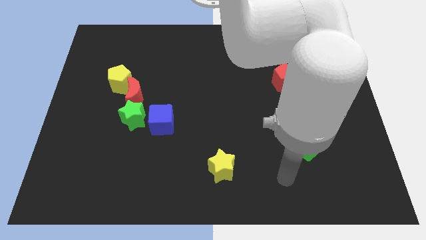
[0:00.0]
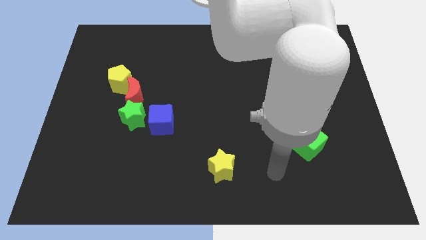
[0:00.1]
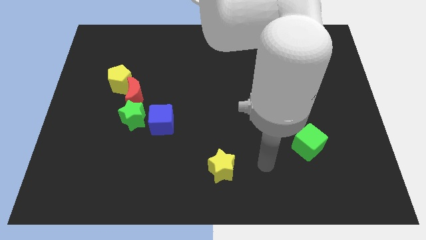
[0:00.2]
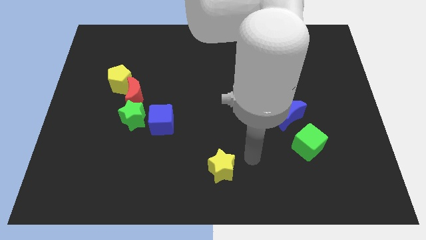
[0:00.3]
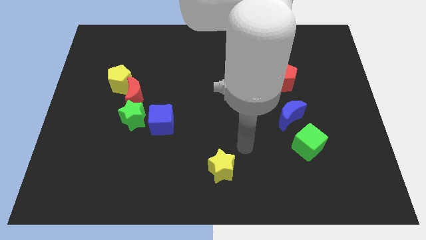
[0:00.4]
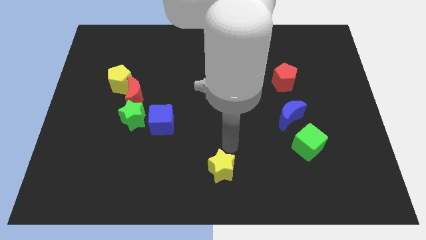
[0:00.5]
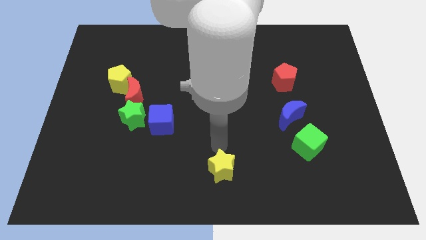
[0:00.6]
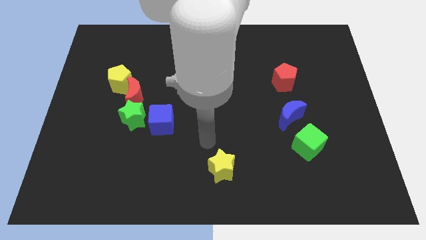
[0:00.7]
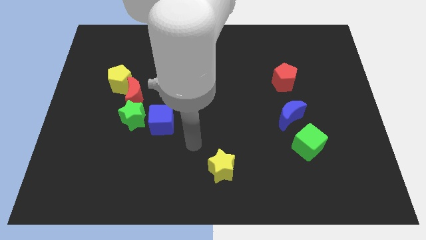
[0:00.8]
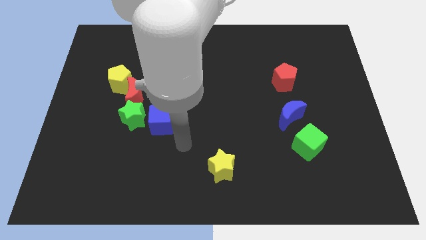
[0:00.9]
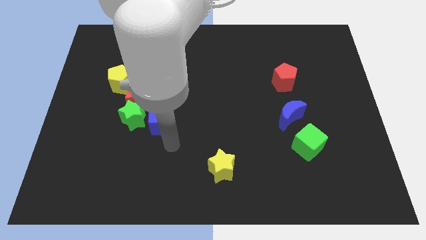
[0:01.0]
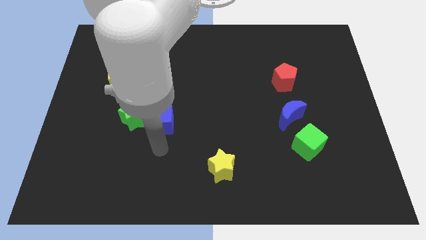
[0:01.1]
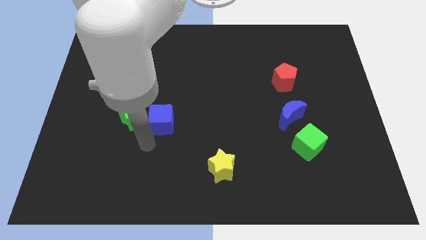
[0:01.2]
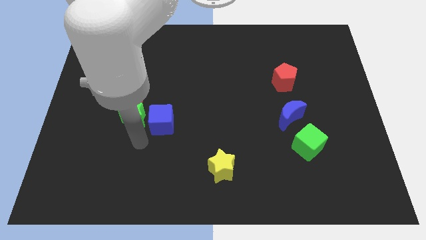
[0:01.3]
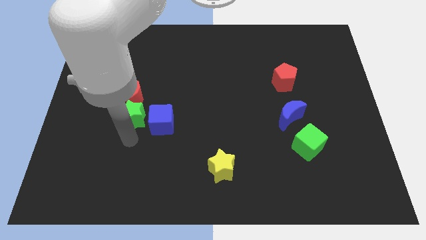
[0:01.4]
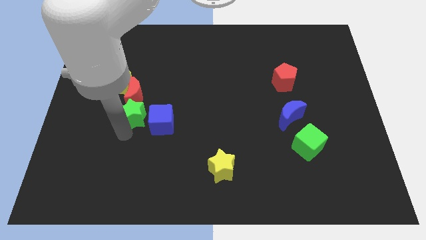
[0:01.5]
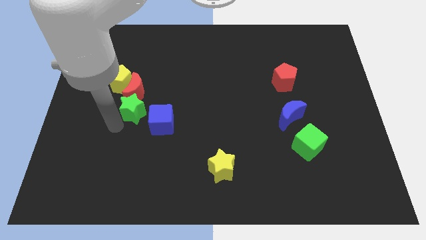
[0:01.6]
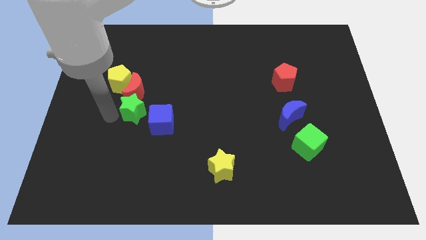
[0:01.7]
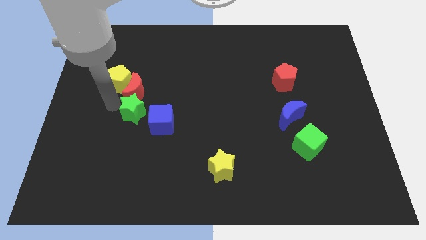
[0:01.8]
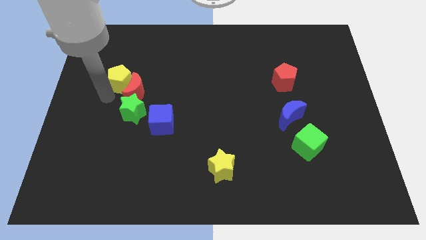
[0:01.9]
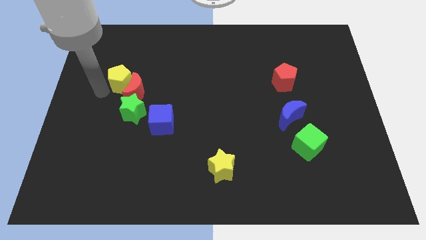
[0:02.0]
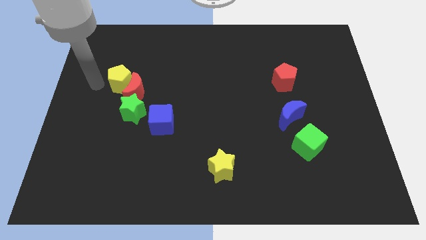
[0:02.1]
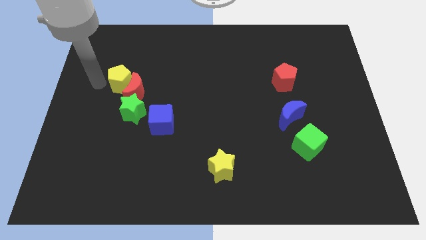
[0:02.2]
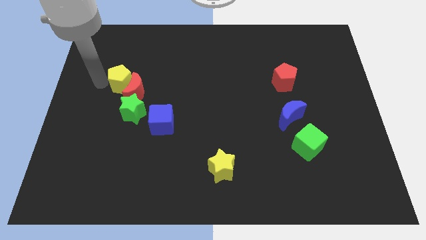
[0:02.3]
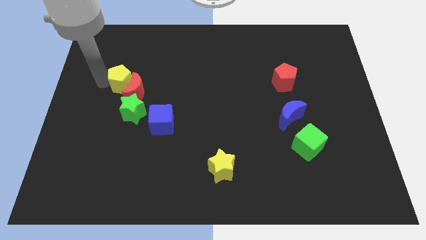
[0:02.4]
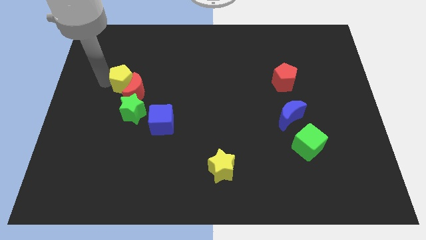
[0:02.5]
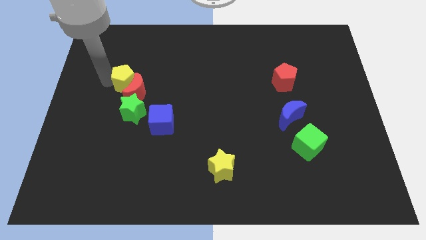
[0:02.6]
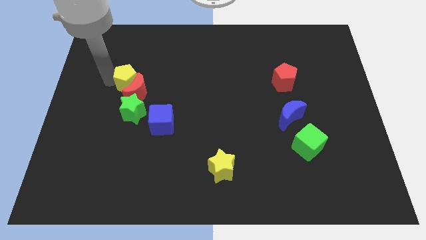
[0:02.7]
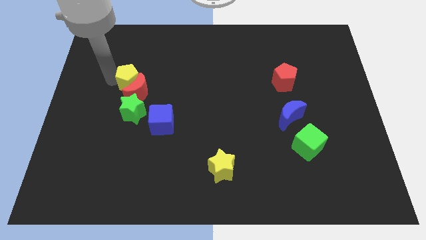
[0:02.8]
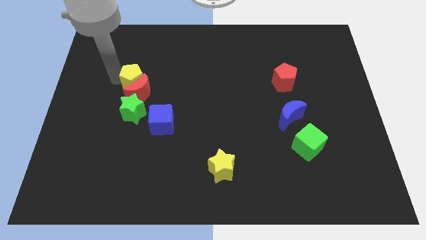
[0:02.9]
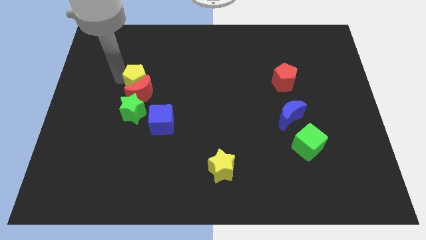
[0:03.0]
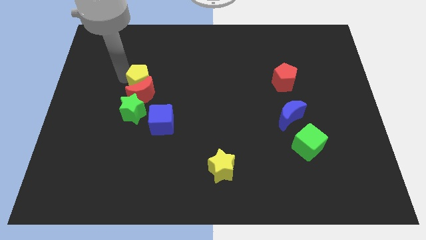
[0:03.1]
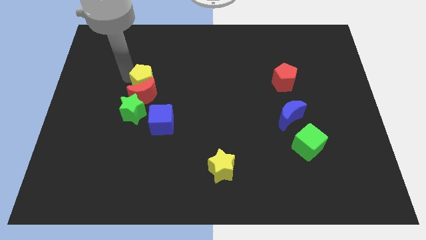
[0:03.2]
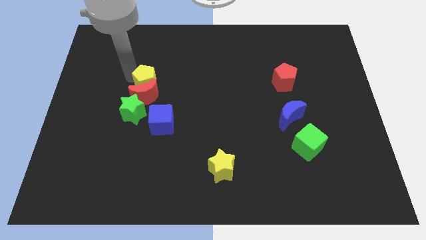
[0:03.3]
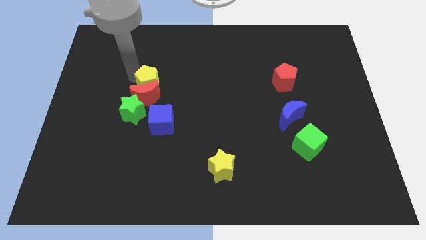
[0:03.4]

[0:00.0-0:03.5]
slightly move the yellow pentagon to the right

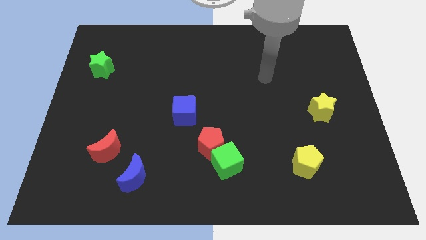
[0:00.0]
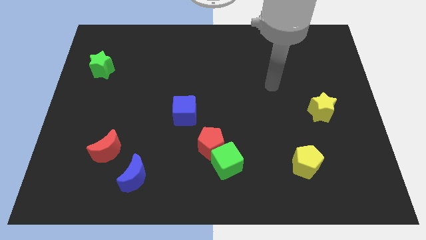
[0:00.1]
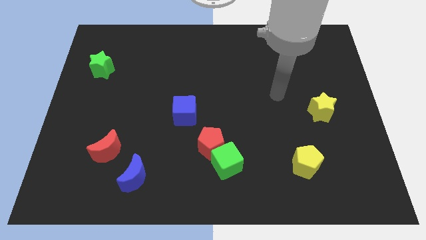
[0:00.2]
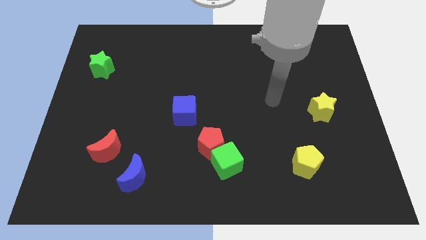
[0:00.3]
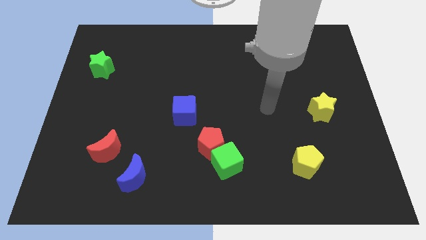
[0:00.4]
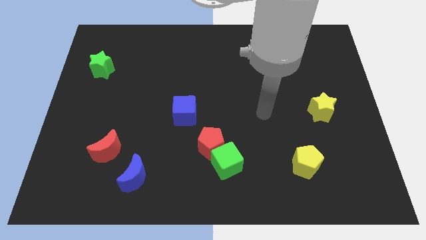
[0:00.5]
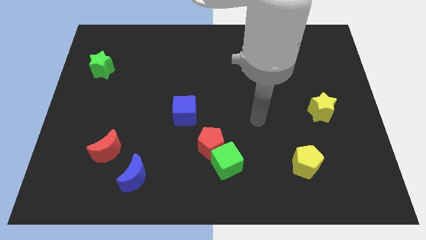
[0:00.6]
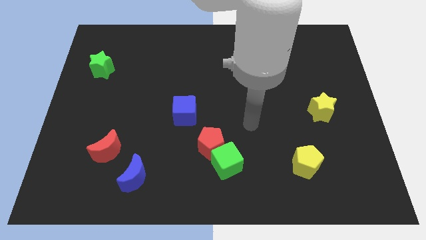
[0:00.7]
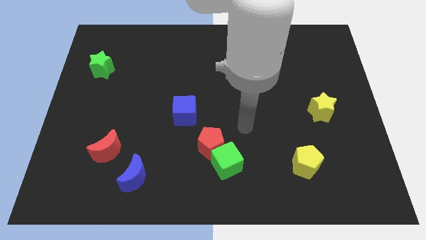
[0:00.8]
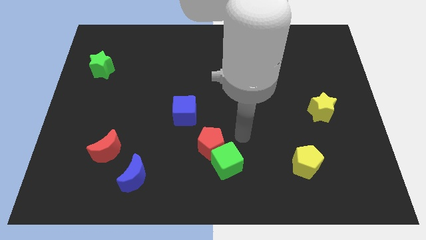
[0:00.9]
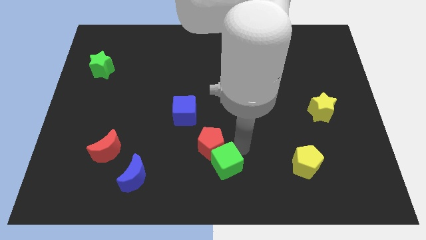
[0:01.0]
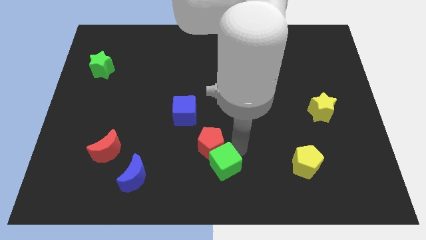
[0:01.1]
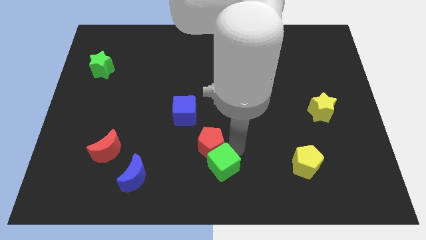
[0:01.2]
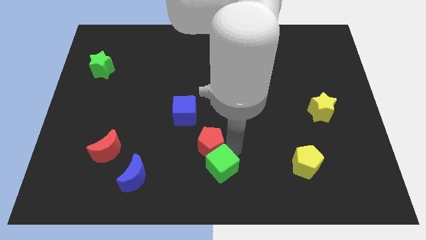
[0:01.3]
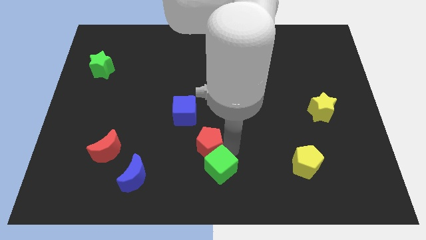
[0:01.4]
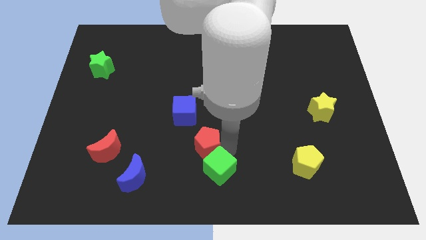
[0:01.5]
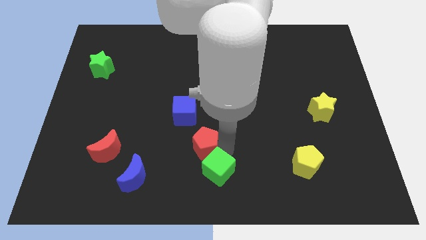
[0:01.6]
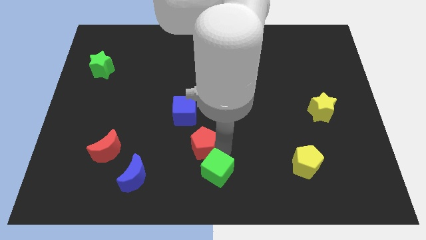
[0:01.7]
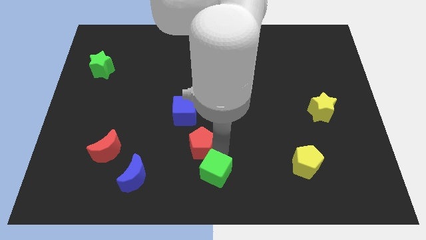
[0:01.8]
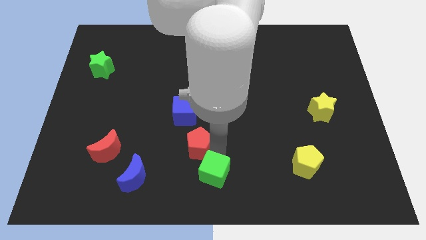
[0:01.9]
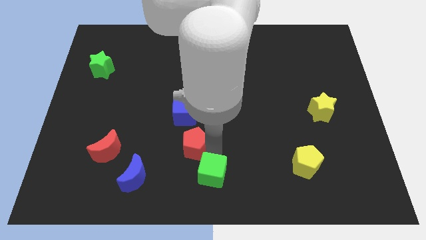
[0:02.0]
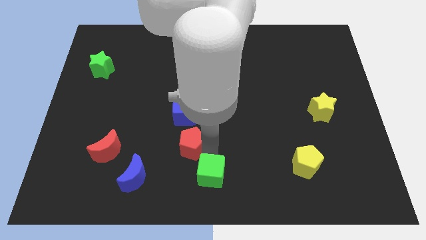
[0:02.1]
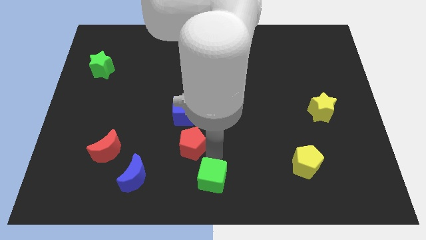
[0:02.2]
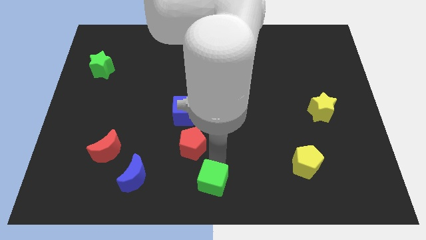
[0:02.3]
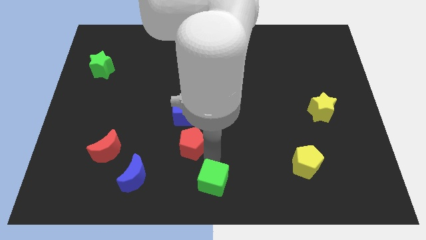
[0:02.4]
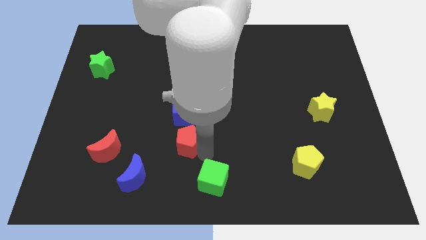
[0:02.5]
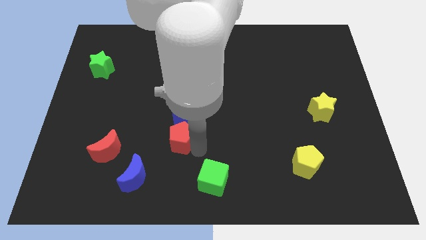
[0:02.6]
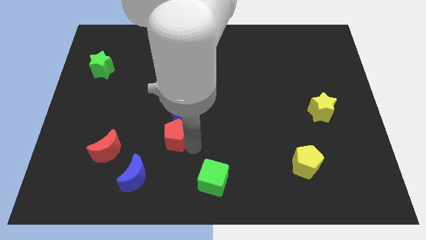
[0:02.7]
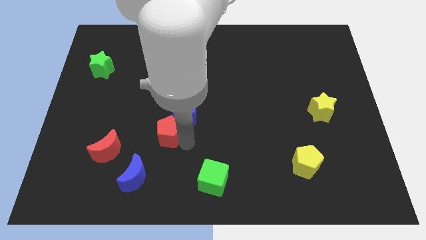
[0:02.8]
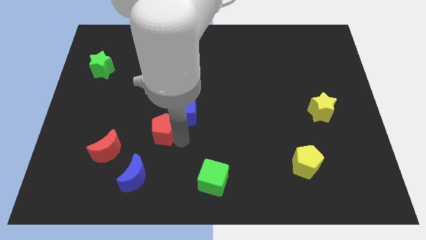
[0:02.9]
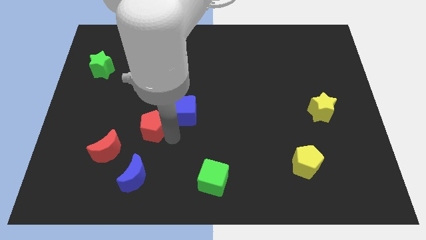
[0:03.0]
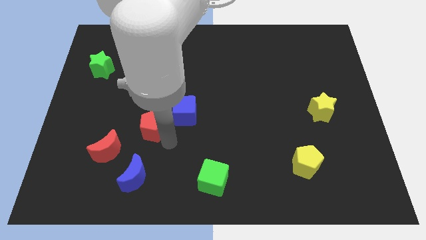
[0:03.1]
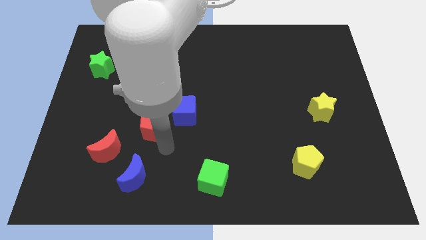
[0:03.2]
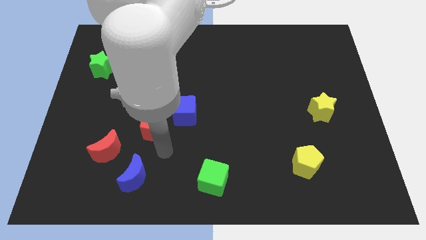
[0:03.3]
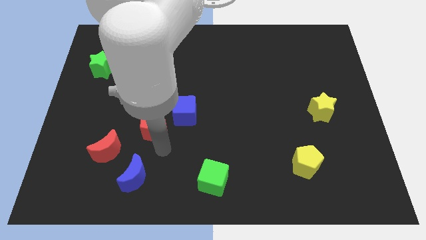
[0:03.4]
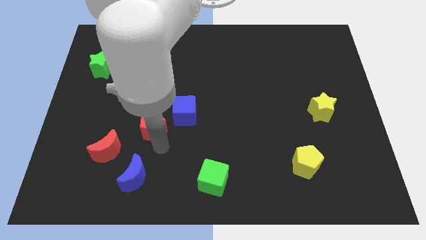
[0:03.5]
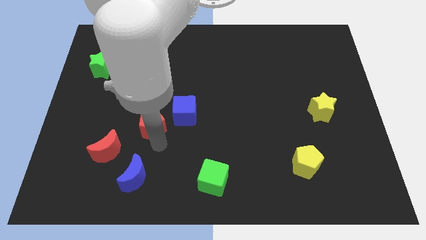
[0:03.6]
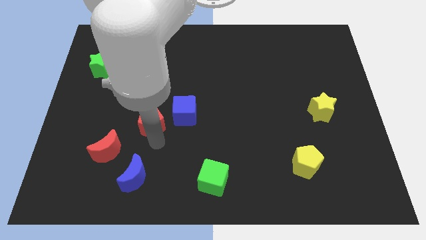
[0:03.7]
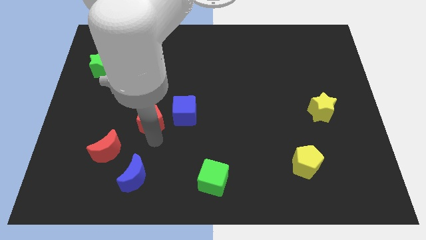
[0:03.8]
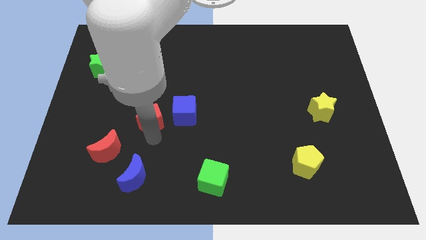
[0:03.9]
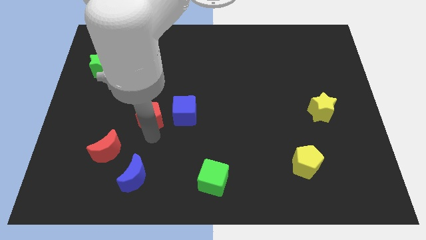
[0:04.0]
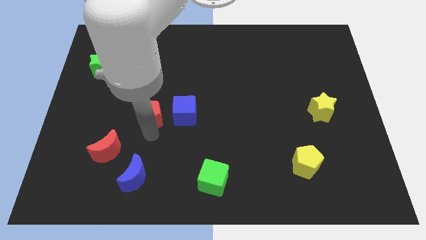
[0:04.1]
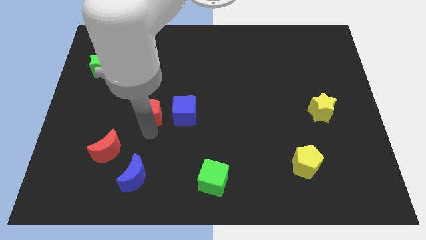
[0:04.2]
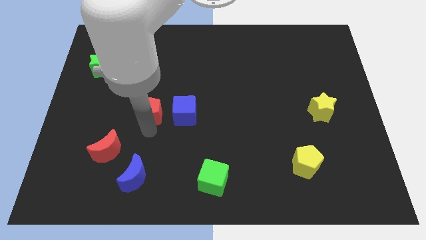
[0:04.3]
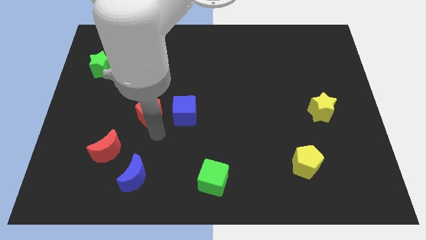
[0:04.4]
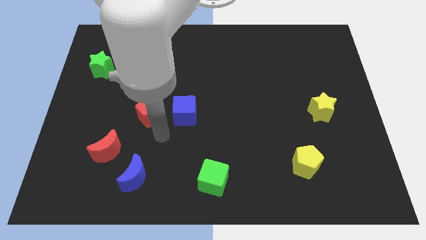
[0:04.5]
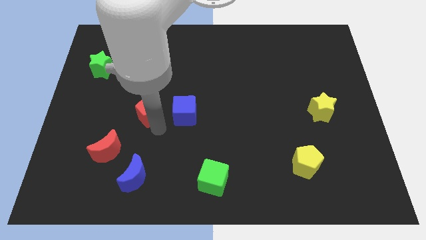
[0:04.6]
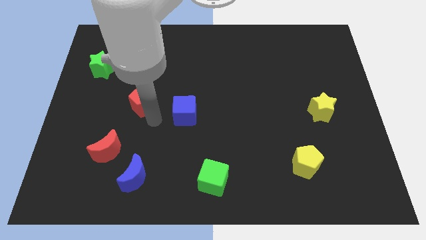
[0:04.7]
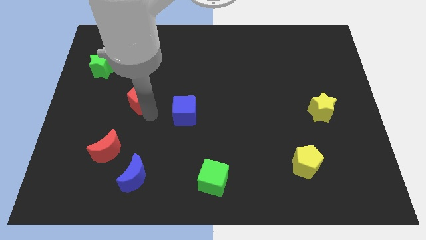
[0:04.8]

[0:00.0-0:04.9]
push the red pentagon upwards and to the left diagonally
